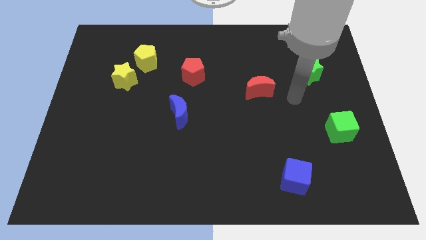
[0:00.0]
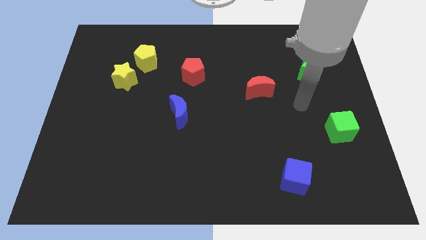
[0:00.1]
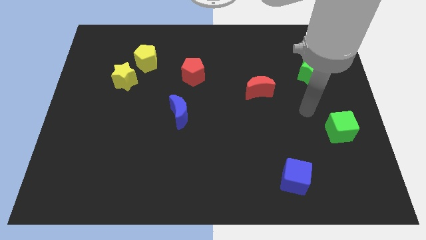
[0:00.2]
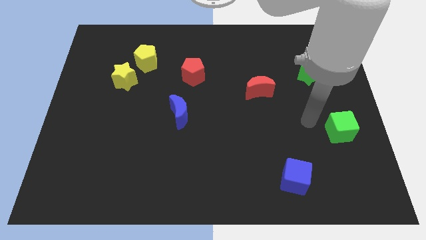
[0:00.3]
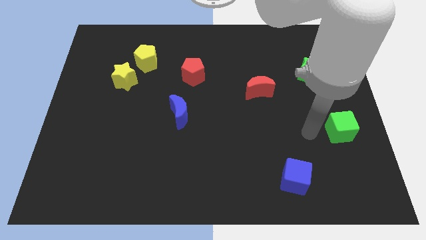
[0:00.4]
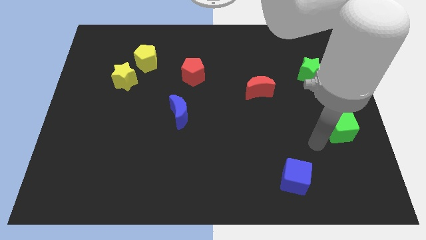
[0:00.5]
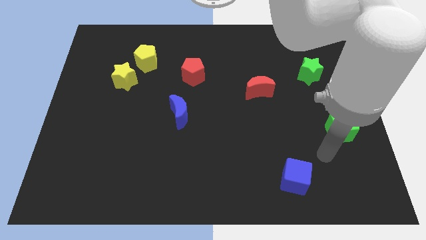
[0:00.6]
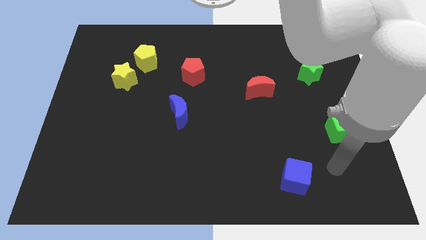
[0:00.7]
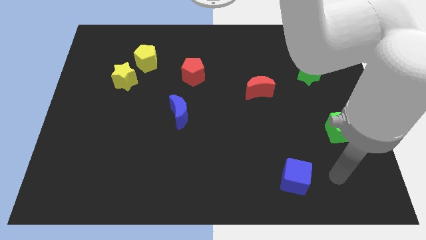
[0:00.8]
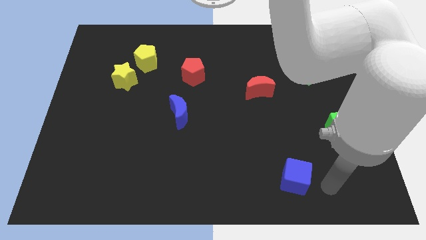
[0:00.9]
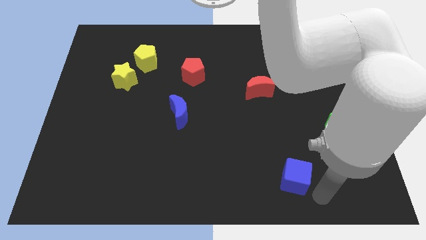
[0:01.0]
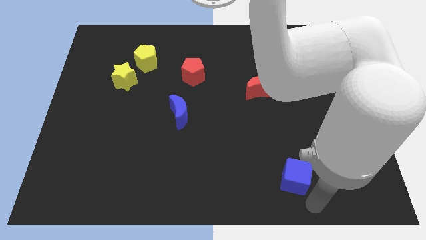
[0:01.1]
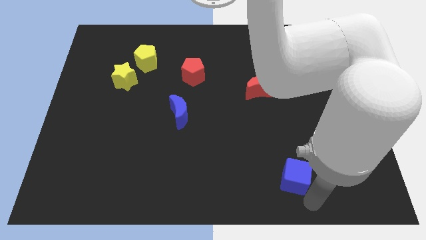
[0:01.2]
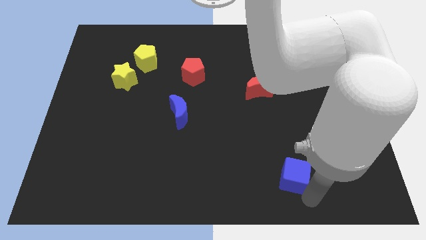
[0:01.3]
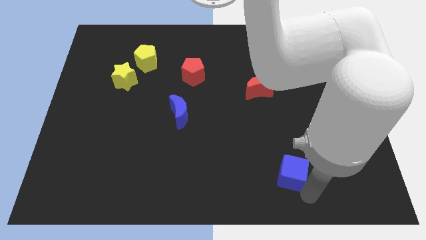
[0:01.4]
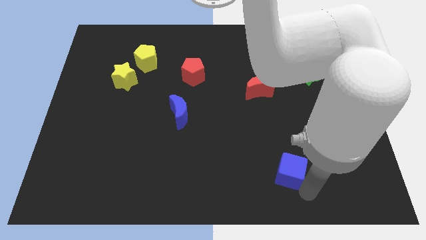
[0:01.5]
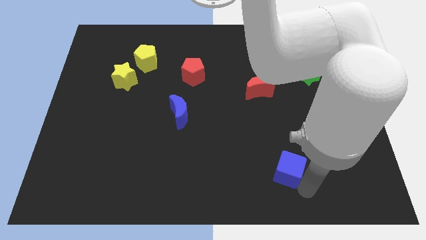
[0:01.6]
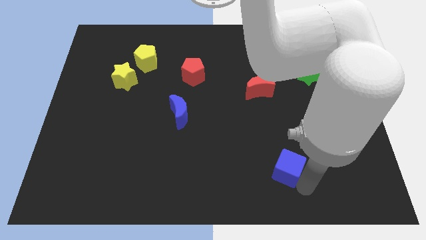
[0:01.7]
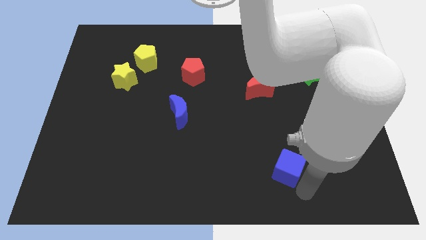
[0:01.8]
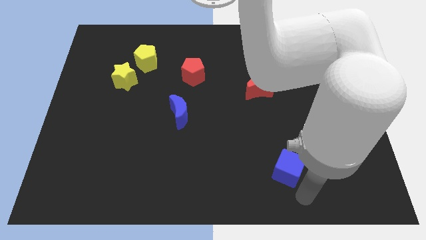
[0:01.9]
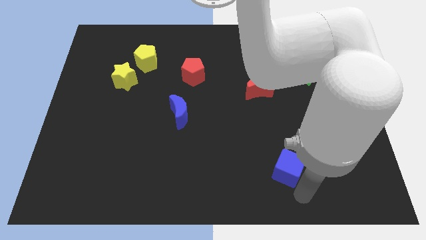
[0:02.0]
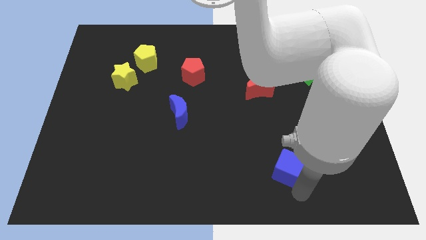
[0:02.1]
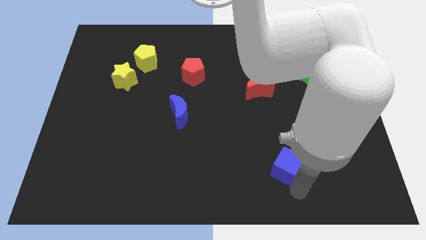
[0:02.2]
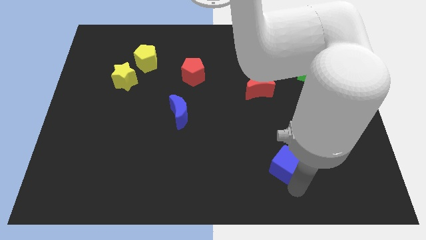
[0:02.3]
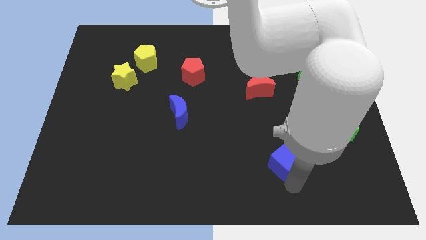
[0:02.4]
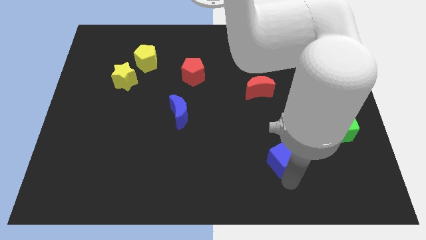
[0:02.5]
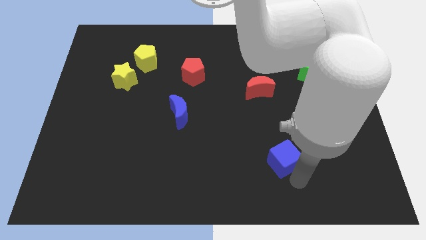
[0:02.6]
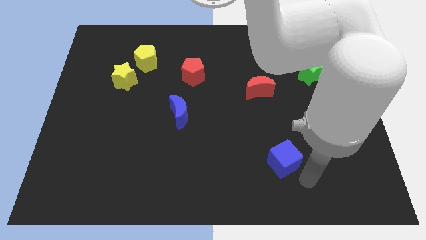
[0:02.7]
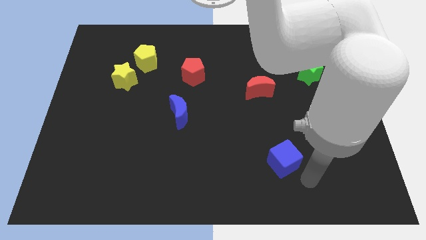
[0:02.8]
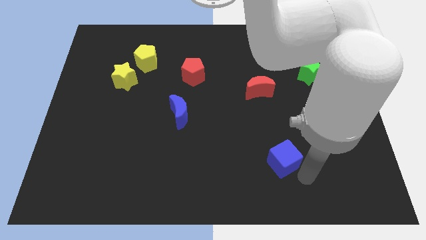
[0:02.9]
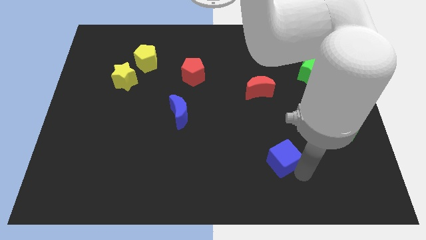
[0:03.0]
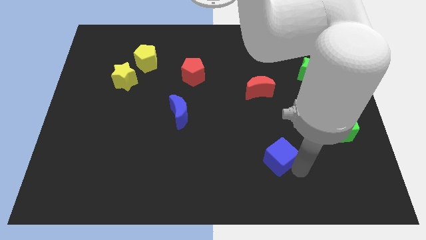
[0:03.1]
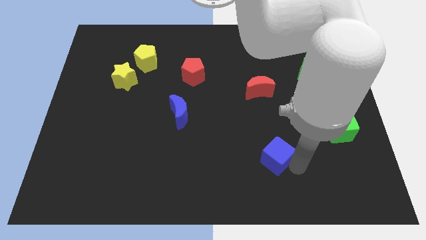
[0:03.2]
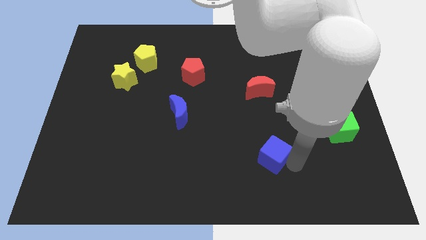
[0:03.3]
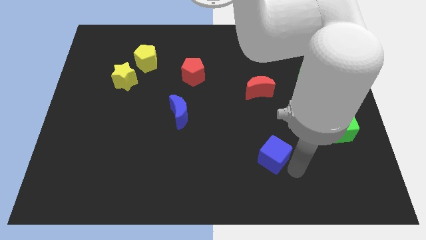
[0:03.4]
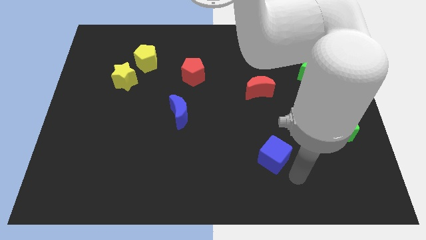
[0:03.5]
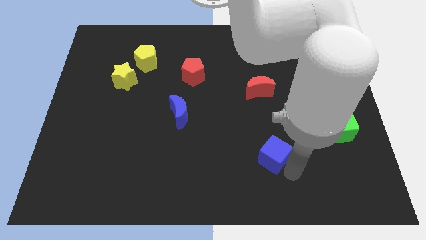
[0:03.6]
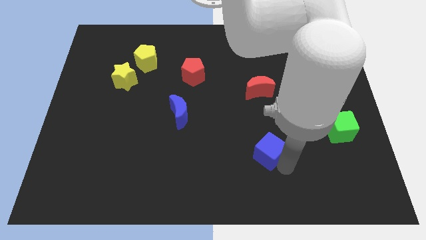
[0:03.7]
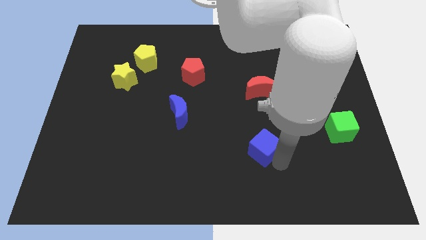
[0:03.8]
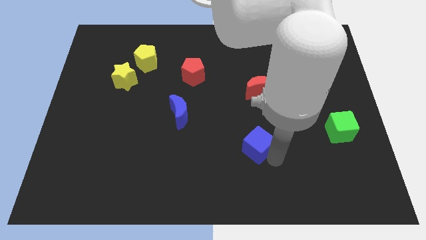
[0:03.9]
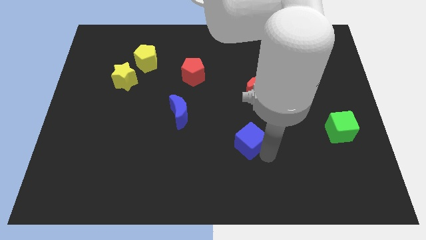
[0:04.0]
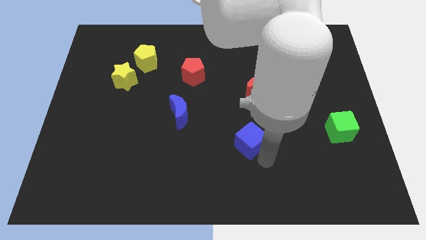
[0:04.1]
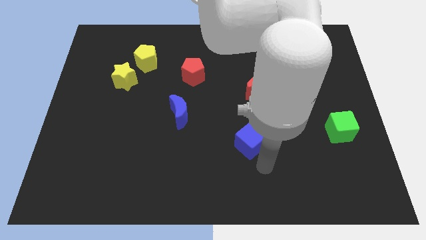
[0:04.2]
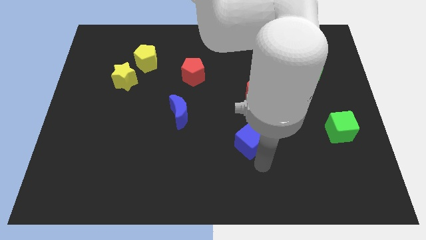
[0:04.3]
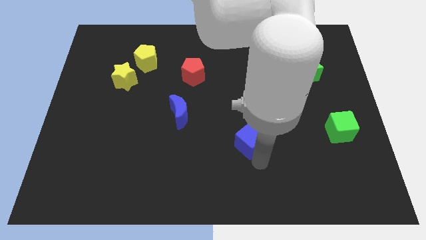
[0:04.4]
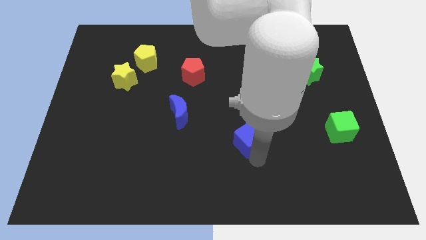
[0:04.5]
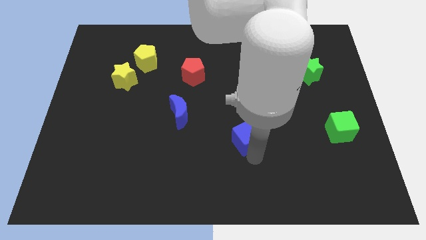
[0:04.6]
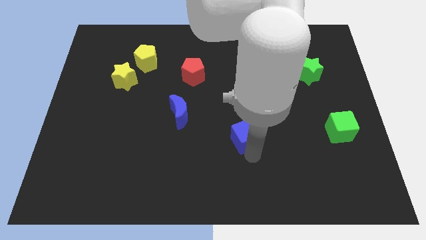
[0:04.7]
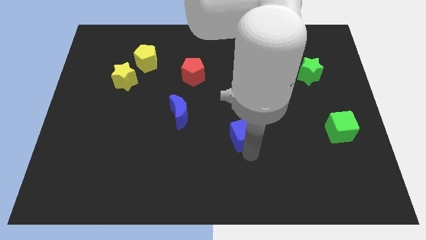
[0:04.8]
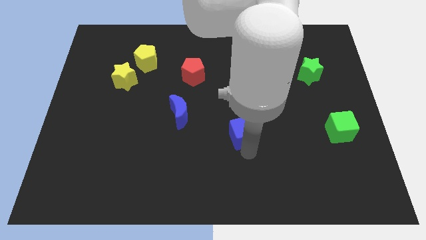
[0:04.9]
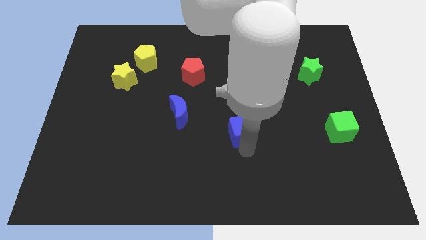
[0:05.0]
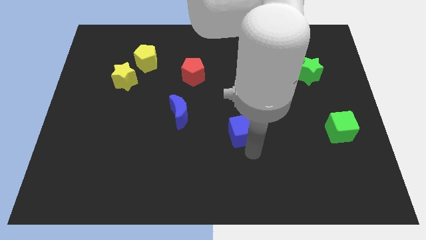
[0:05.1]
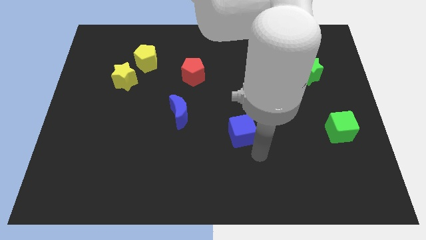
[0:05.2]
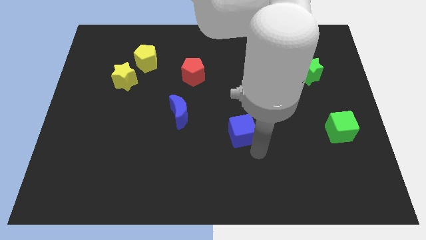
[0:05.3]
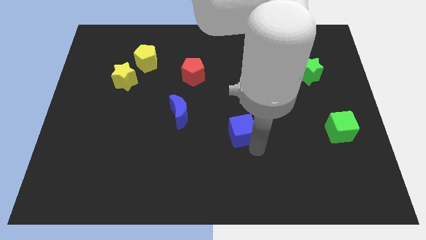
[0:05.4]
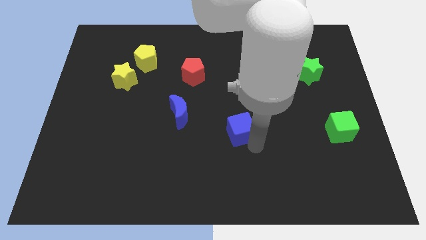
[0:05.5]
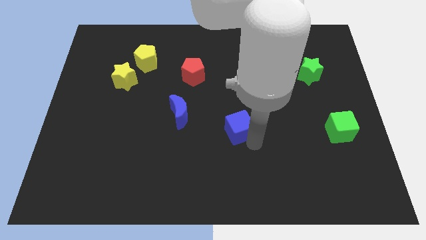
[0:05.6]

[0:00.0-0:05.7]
slide the blue cube right of the blue moon
